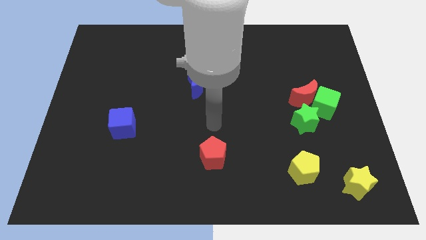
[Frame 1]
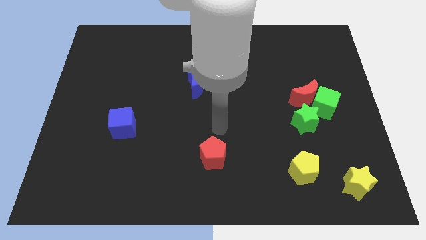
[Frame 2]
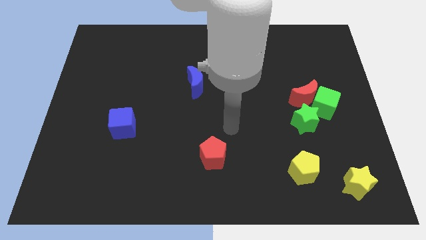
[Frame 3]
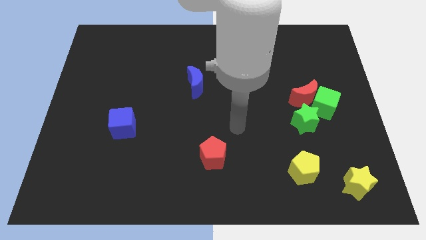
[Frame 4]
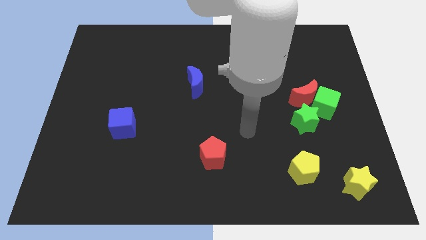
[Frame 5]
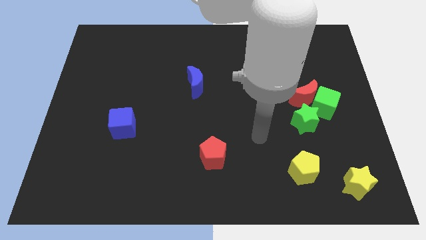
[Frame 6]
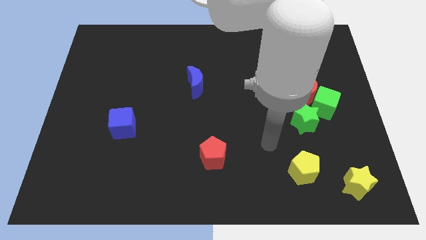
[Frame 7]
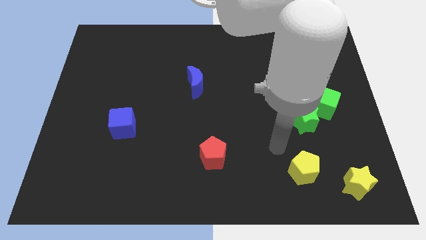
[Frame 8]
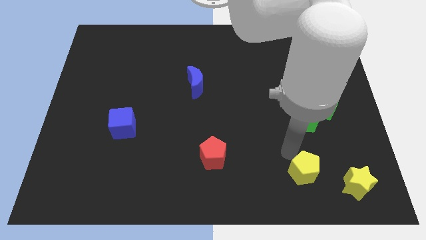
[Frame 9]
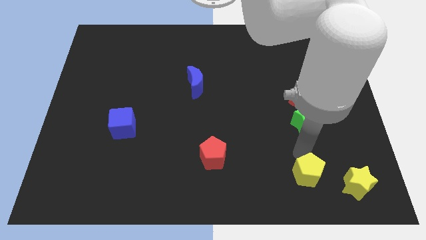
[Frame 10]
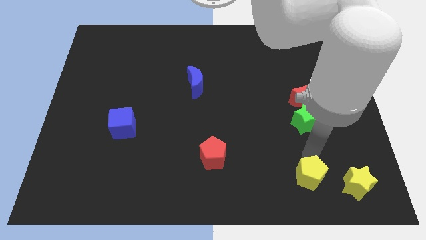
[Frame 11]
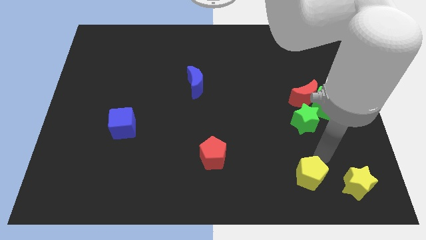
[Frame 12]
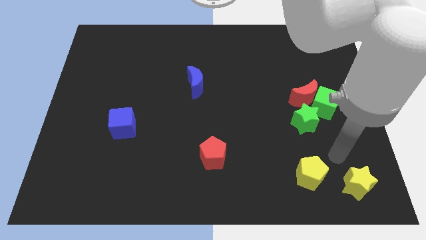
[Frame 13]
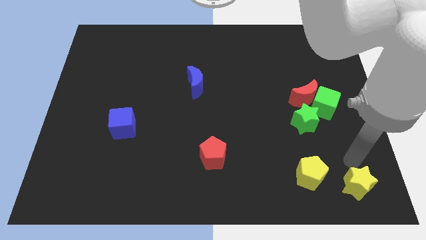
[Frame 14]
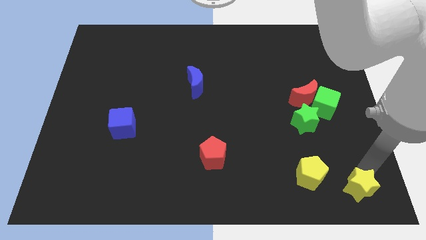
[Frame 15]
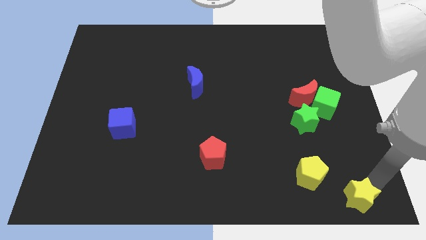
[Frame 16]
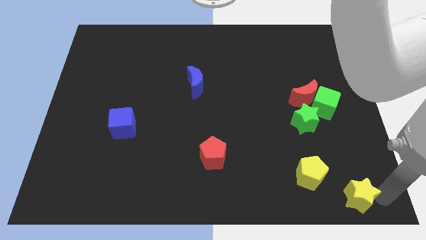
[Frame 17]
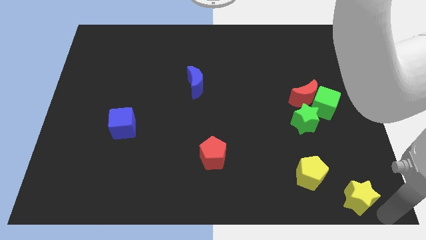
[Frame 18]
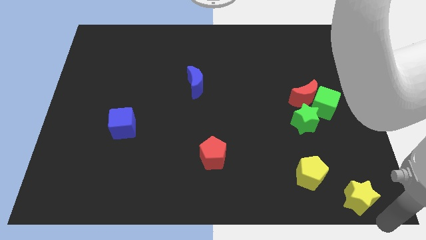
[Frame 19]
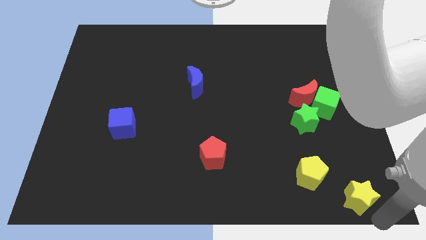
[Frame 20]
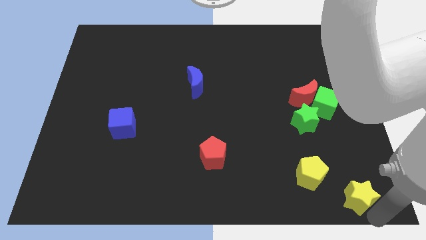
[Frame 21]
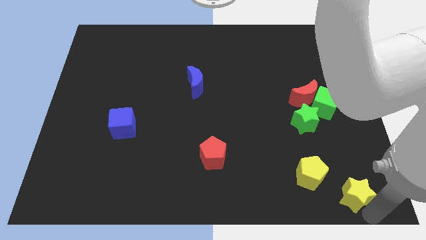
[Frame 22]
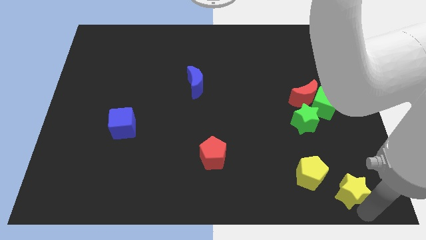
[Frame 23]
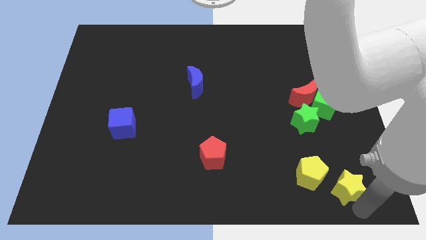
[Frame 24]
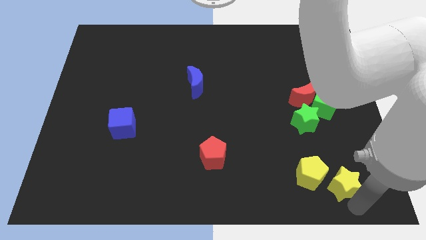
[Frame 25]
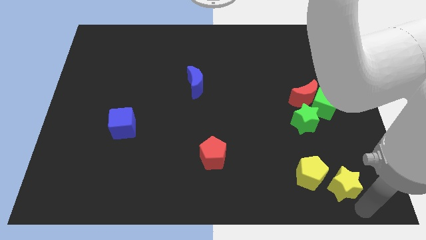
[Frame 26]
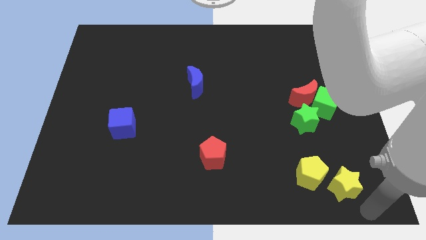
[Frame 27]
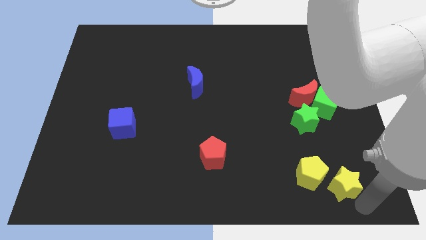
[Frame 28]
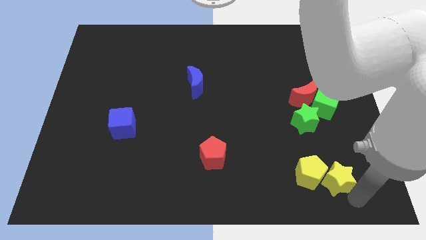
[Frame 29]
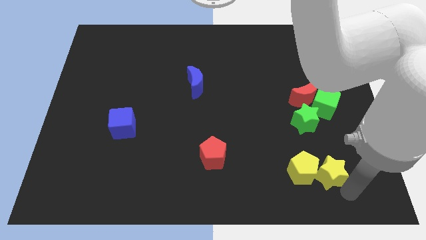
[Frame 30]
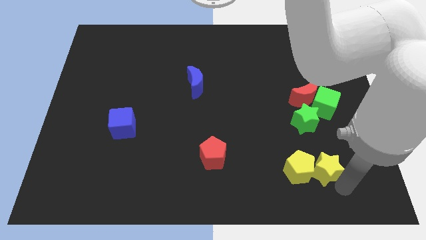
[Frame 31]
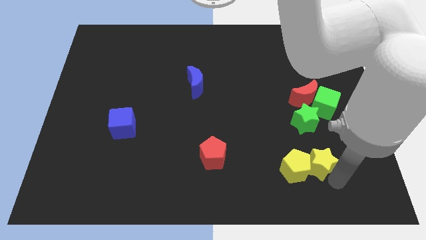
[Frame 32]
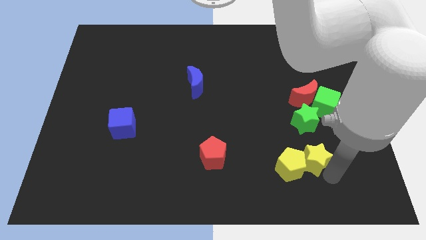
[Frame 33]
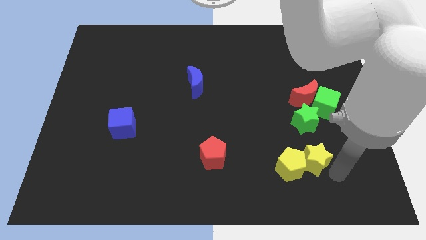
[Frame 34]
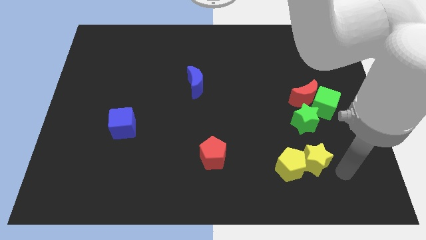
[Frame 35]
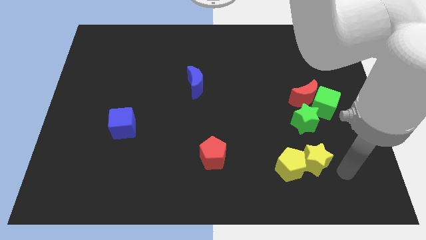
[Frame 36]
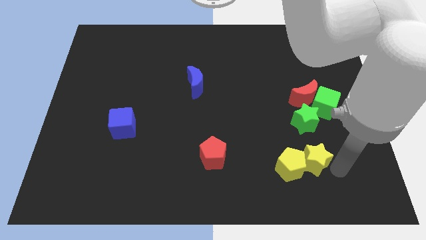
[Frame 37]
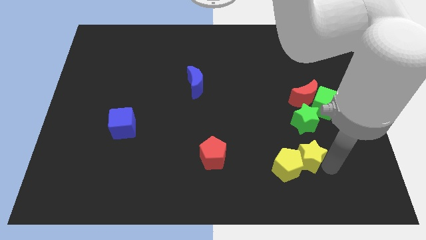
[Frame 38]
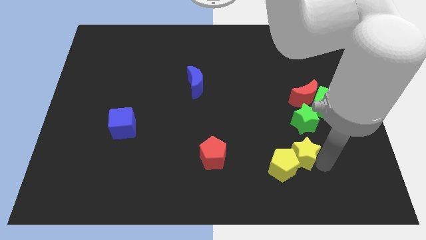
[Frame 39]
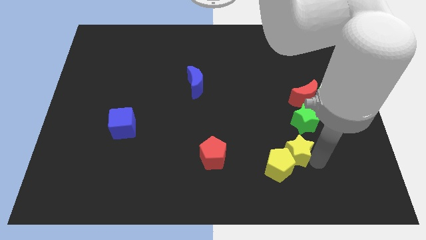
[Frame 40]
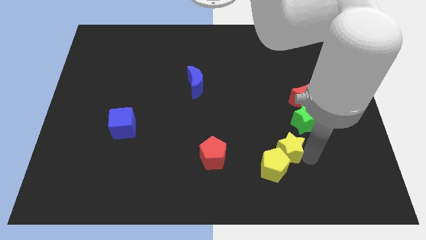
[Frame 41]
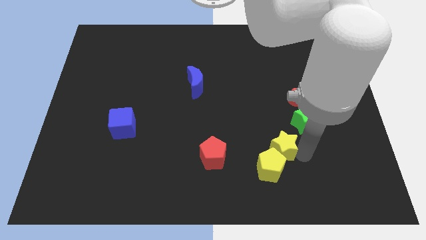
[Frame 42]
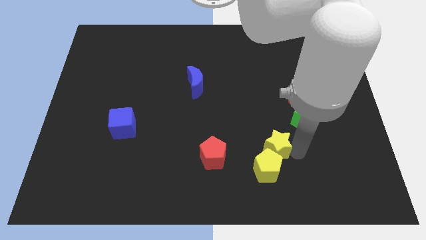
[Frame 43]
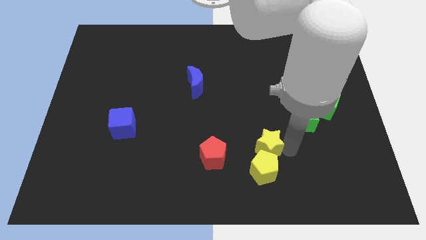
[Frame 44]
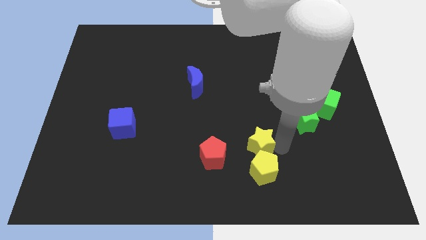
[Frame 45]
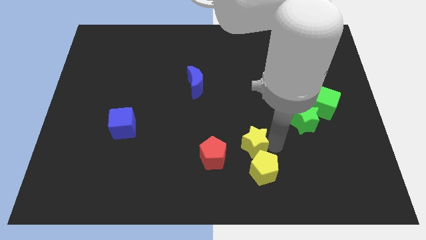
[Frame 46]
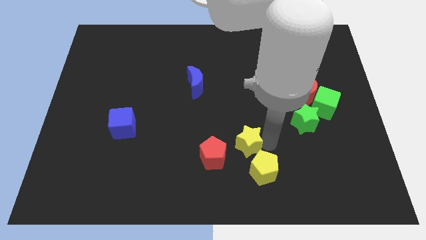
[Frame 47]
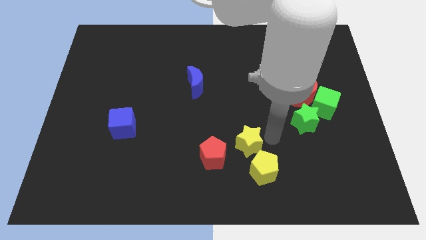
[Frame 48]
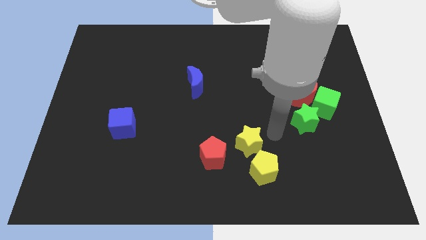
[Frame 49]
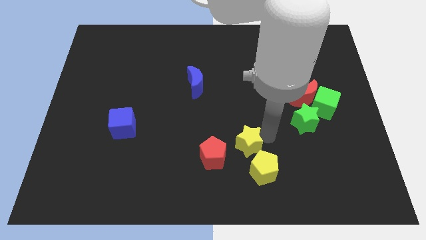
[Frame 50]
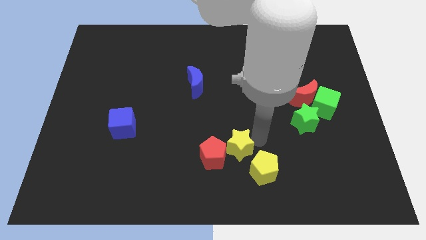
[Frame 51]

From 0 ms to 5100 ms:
push the yellow star next to the red pentagon
